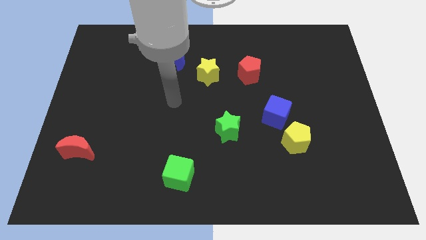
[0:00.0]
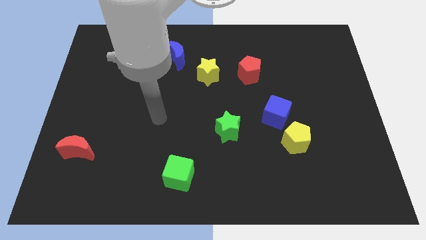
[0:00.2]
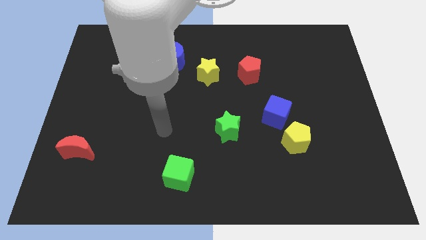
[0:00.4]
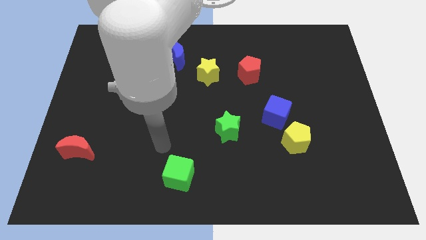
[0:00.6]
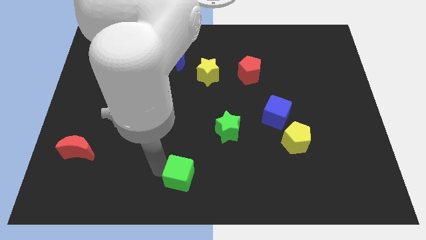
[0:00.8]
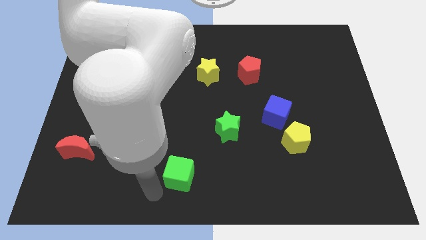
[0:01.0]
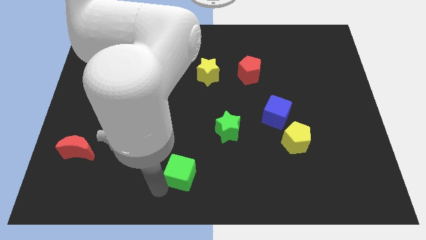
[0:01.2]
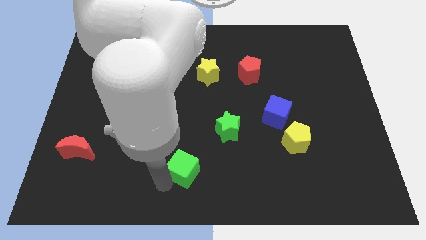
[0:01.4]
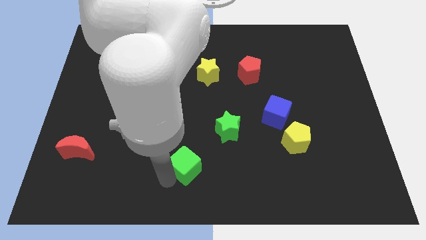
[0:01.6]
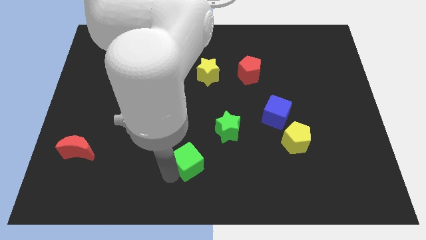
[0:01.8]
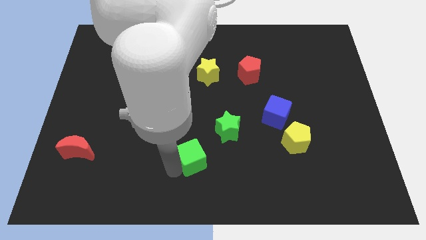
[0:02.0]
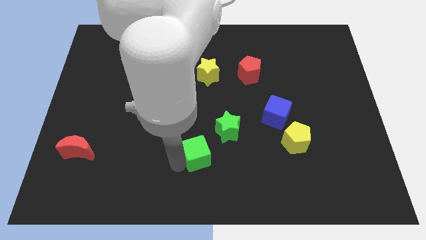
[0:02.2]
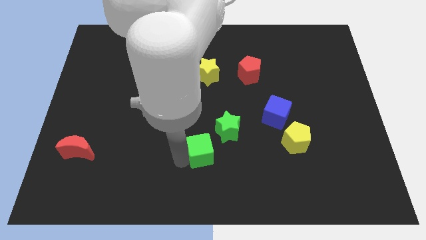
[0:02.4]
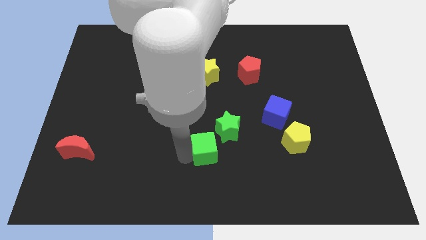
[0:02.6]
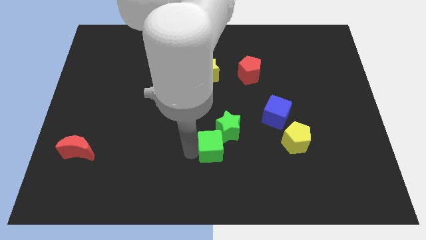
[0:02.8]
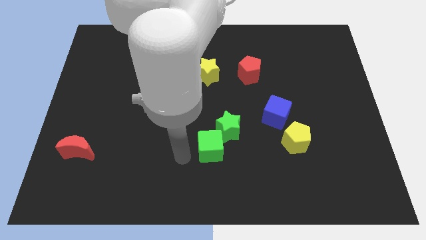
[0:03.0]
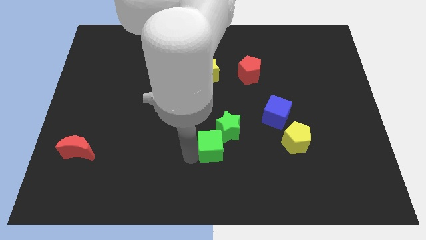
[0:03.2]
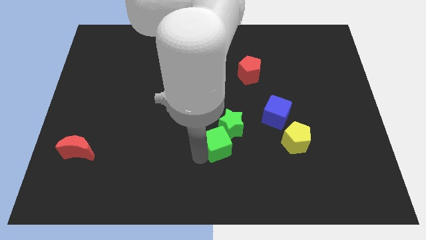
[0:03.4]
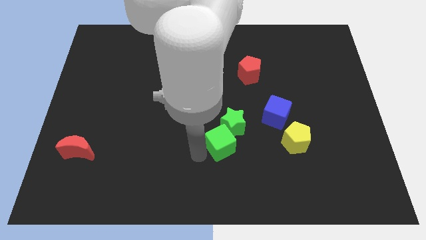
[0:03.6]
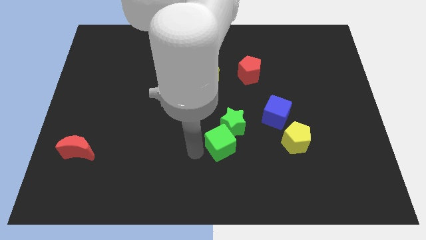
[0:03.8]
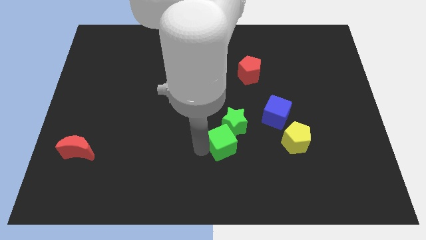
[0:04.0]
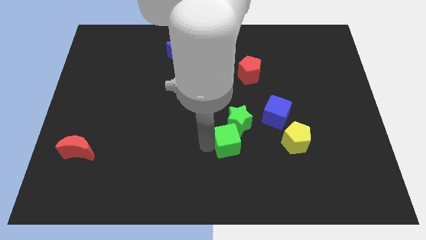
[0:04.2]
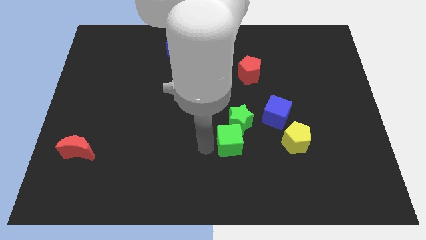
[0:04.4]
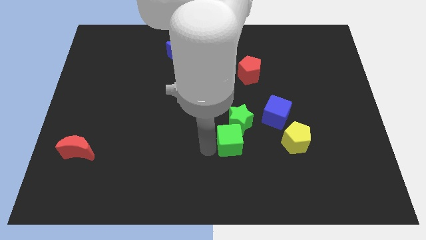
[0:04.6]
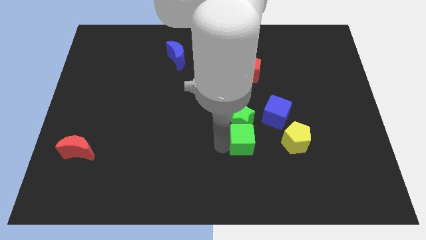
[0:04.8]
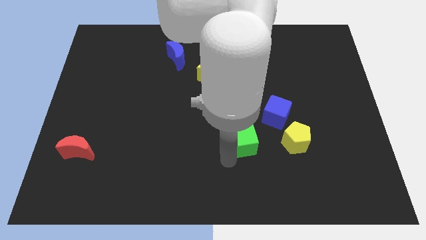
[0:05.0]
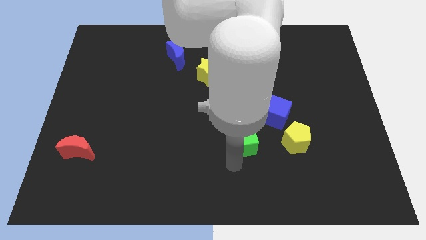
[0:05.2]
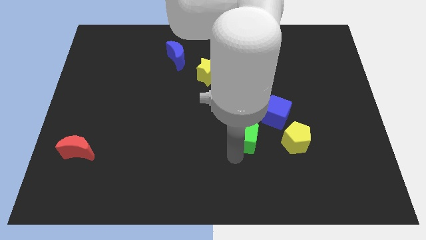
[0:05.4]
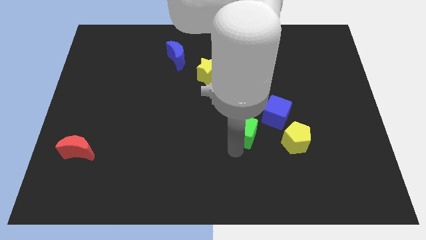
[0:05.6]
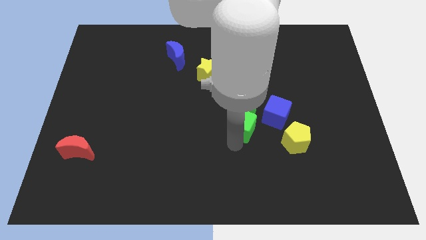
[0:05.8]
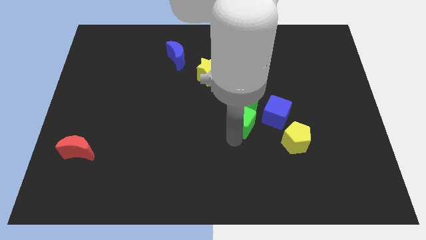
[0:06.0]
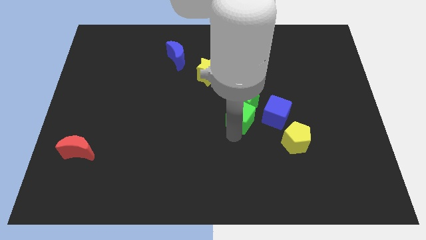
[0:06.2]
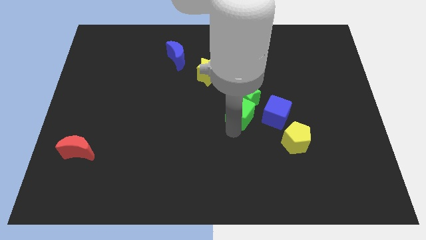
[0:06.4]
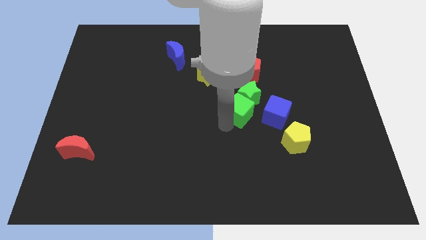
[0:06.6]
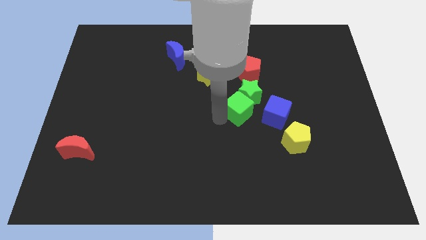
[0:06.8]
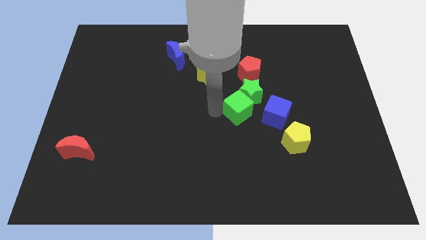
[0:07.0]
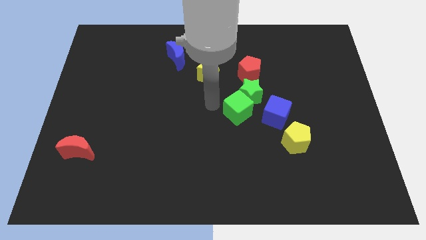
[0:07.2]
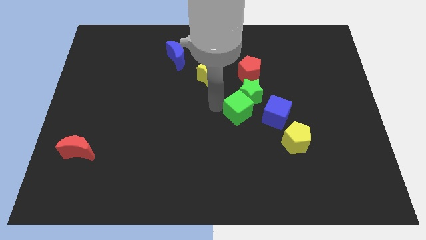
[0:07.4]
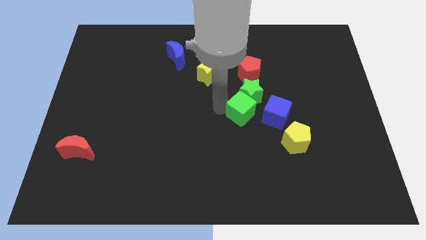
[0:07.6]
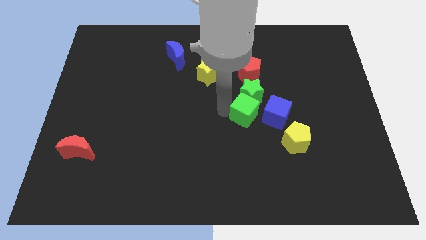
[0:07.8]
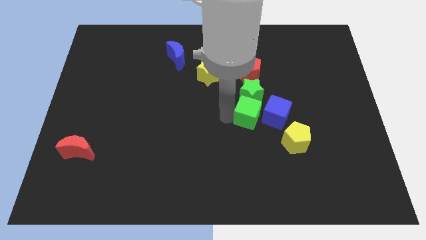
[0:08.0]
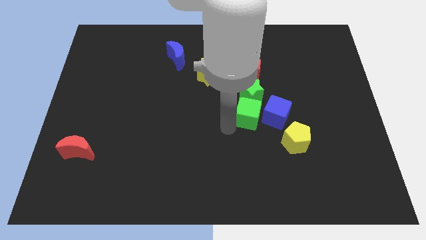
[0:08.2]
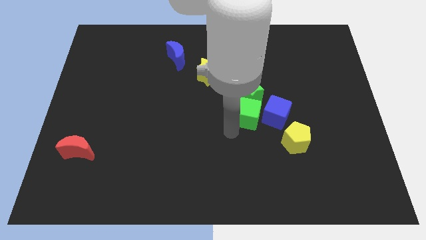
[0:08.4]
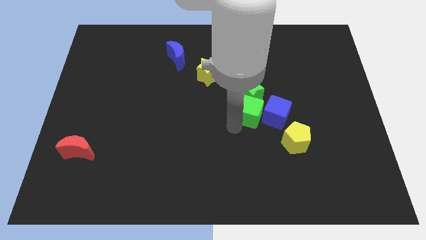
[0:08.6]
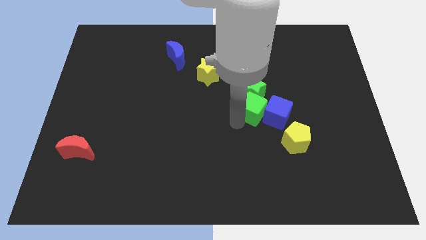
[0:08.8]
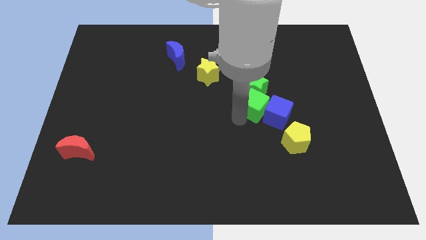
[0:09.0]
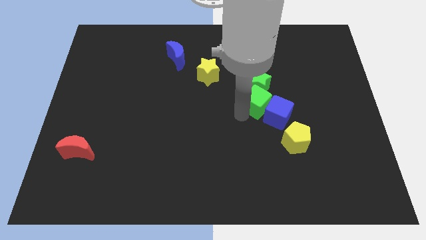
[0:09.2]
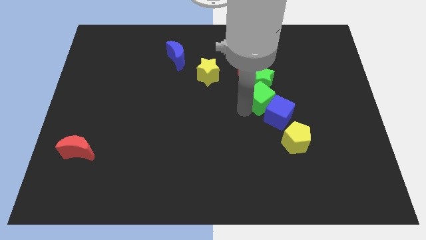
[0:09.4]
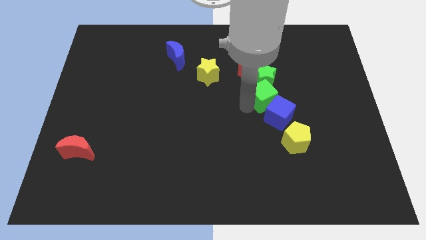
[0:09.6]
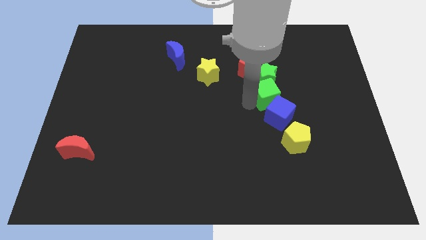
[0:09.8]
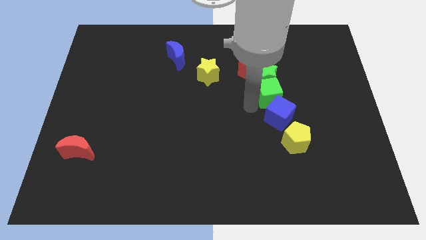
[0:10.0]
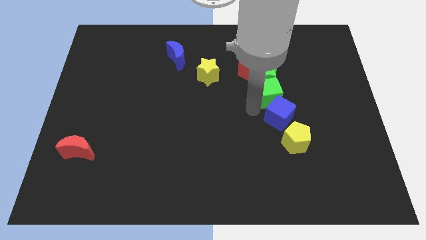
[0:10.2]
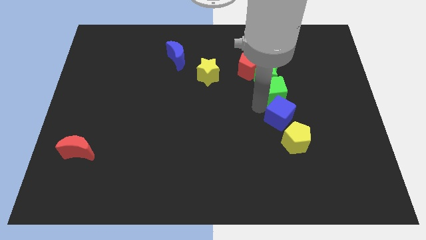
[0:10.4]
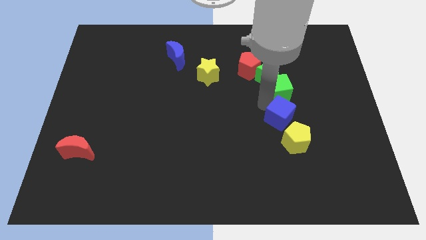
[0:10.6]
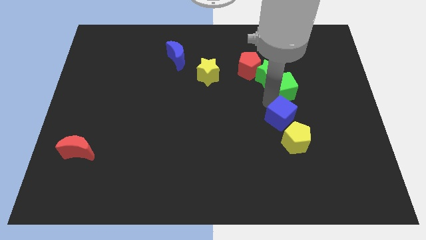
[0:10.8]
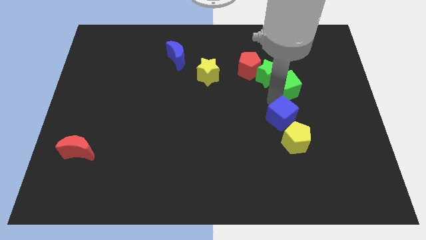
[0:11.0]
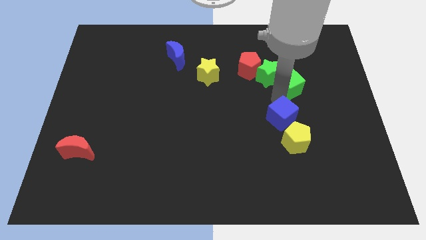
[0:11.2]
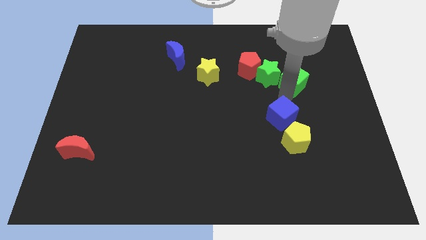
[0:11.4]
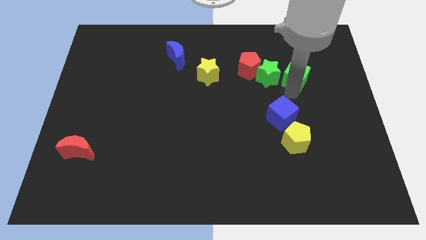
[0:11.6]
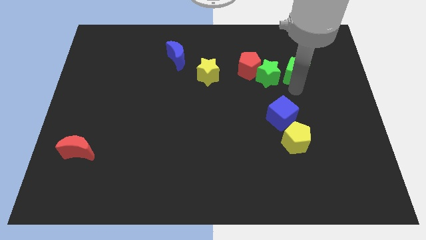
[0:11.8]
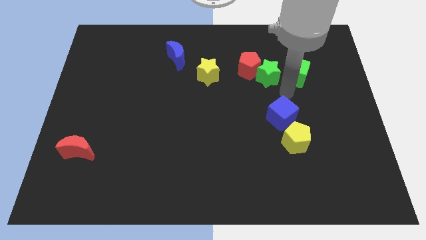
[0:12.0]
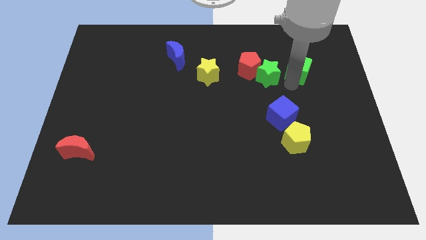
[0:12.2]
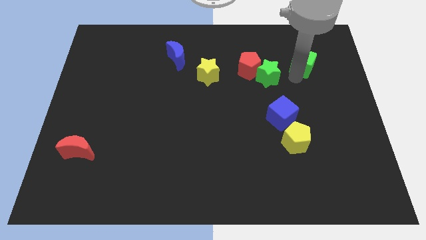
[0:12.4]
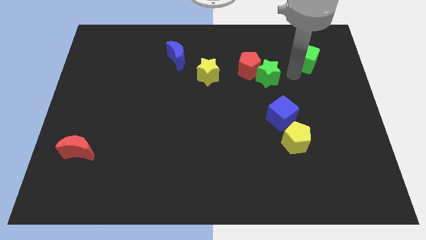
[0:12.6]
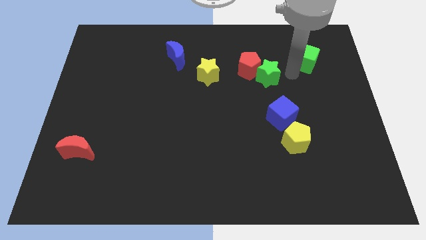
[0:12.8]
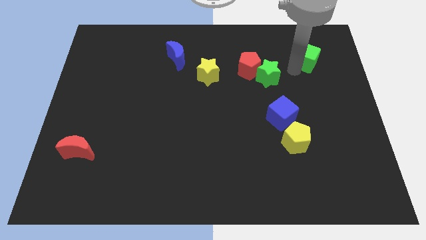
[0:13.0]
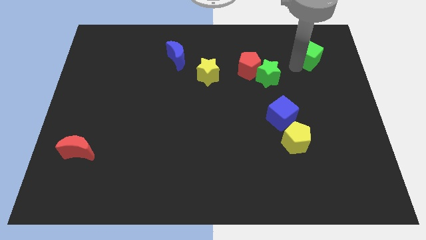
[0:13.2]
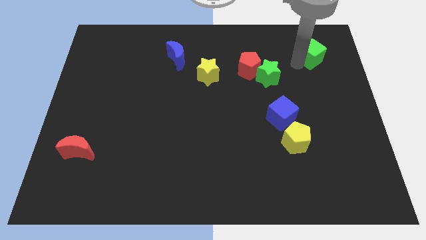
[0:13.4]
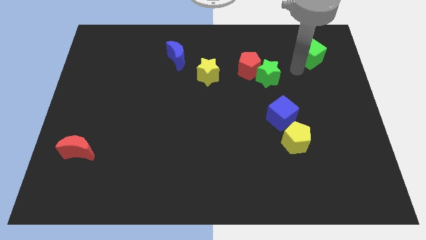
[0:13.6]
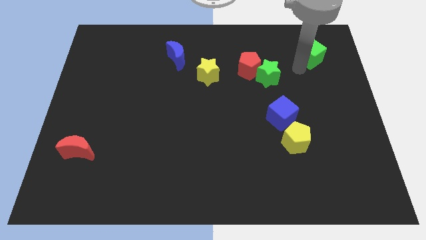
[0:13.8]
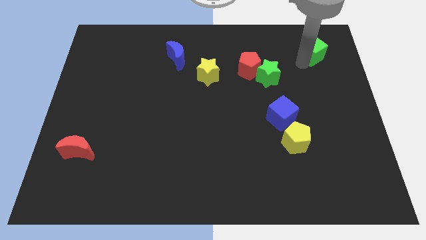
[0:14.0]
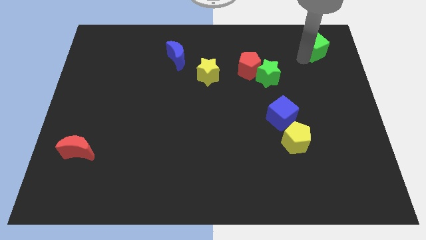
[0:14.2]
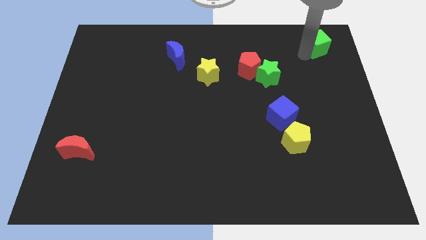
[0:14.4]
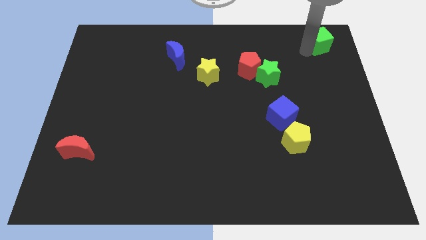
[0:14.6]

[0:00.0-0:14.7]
slide the green cube to the top right of the board
